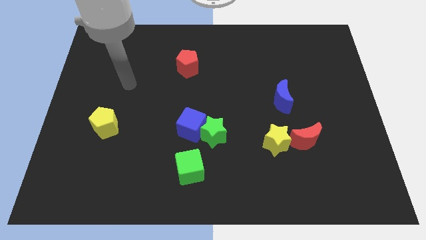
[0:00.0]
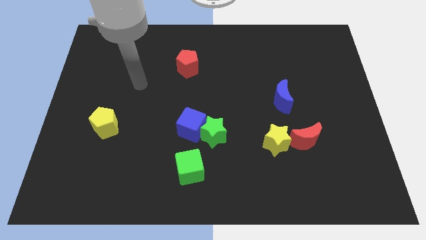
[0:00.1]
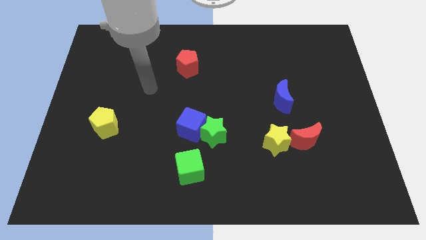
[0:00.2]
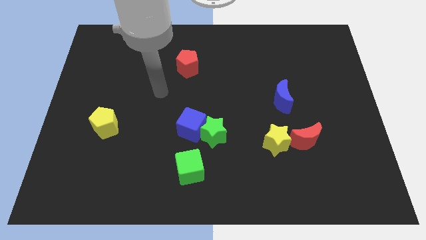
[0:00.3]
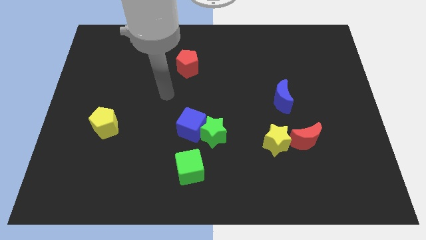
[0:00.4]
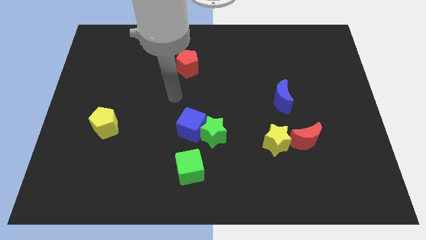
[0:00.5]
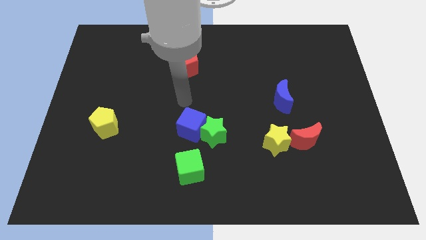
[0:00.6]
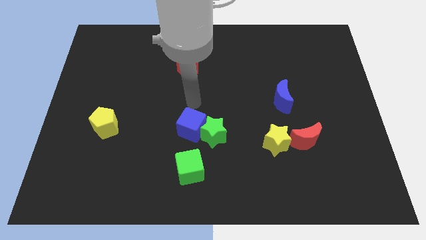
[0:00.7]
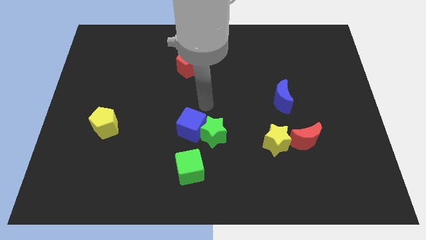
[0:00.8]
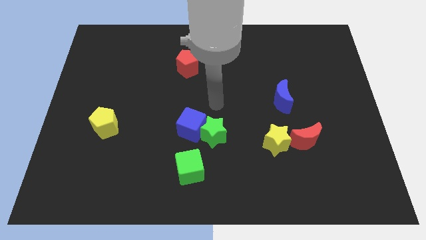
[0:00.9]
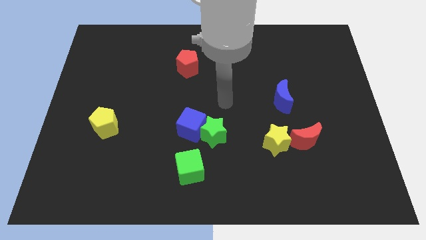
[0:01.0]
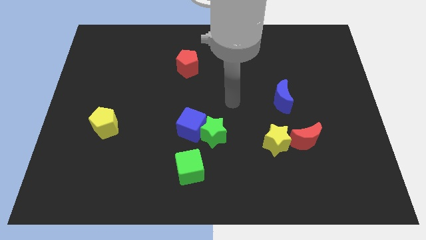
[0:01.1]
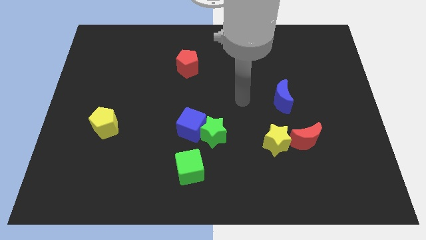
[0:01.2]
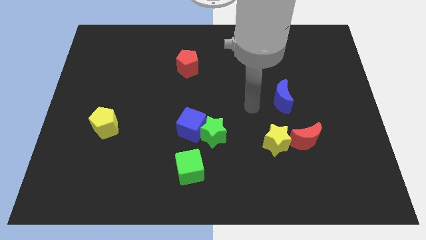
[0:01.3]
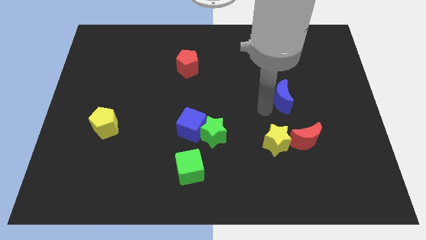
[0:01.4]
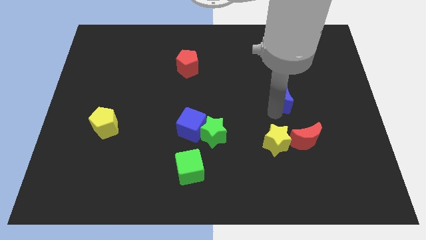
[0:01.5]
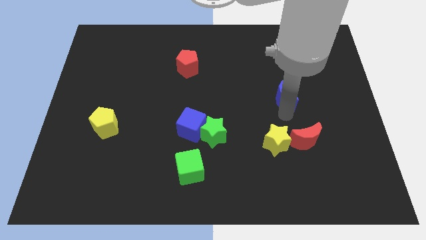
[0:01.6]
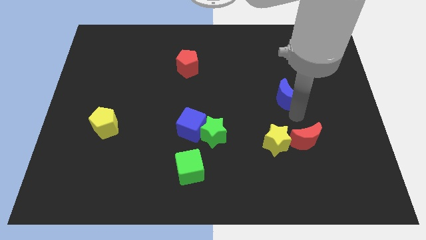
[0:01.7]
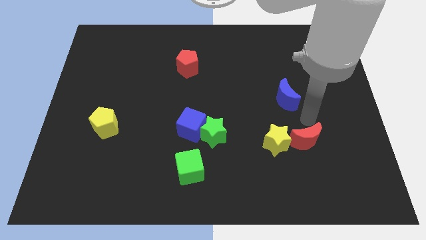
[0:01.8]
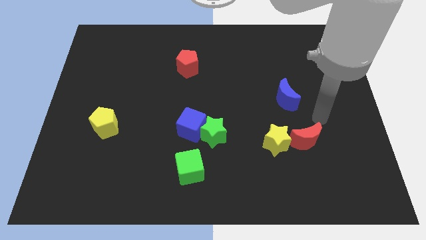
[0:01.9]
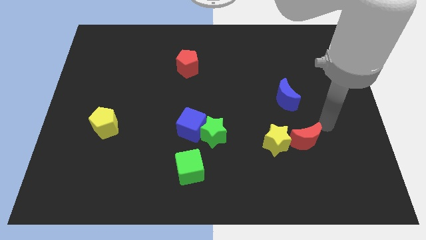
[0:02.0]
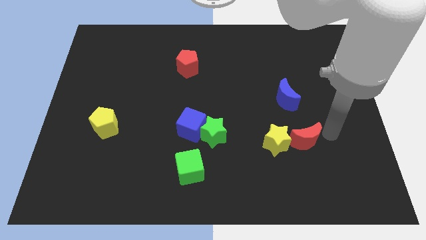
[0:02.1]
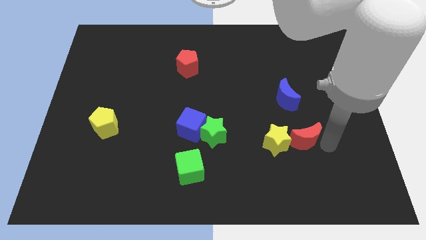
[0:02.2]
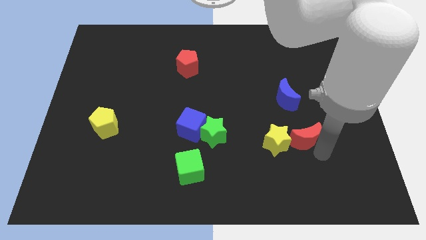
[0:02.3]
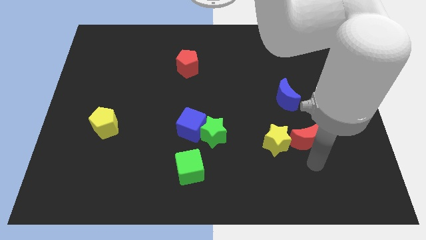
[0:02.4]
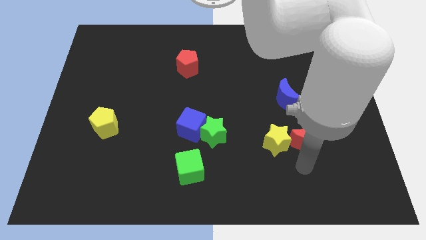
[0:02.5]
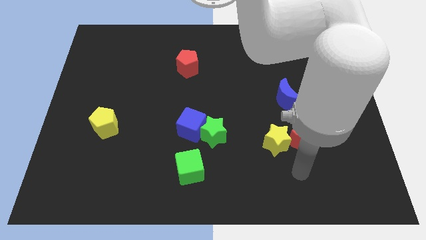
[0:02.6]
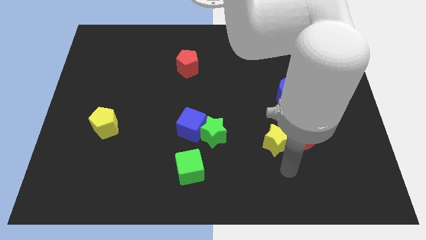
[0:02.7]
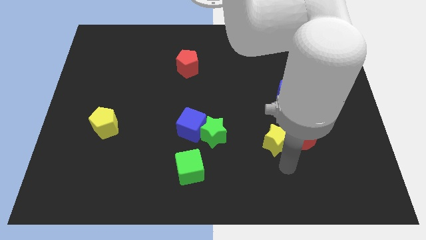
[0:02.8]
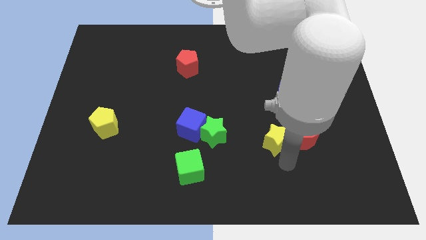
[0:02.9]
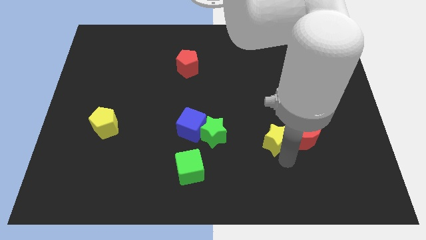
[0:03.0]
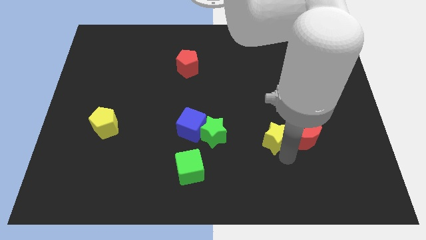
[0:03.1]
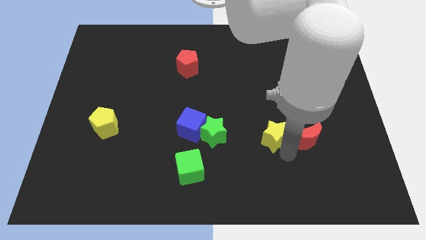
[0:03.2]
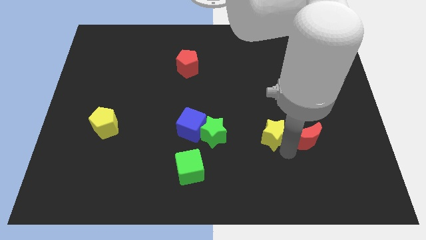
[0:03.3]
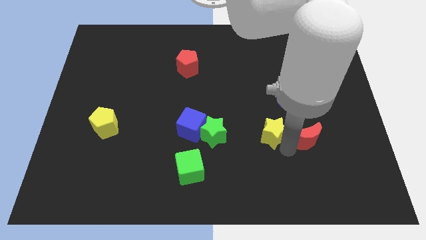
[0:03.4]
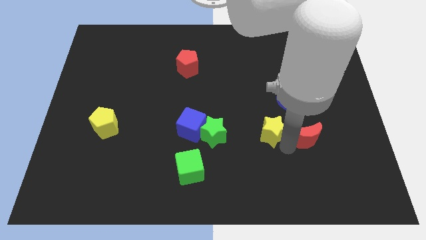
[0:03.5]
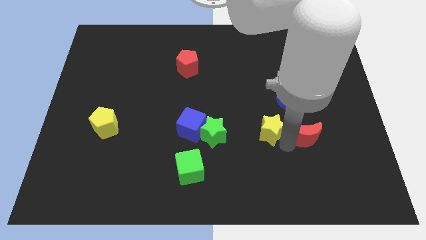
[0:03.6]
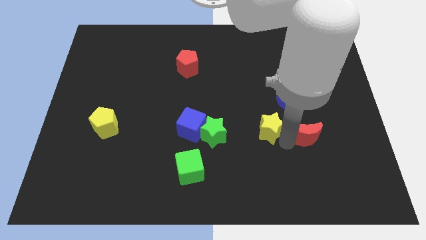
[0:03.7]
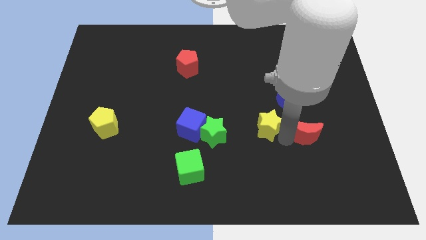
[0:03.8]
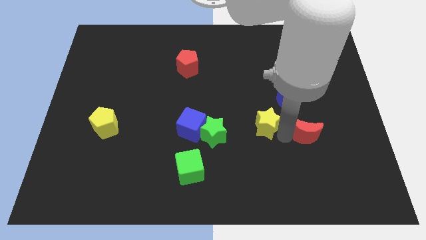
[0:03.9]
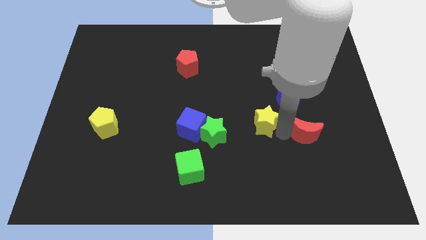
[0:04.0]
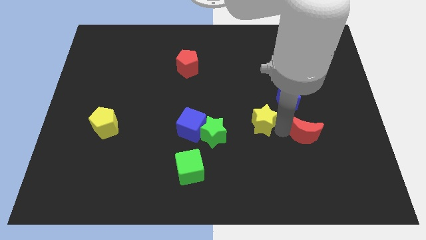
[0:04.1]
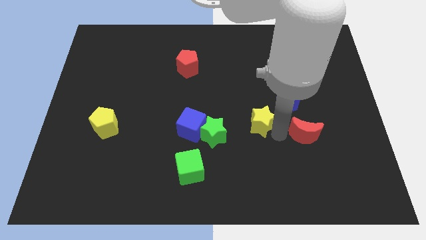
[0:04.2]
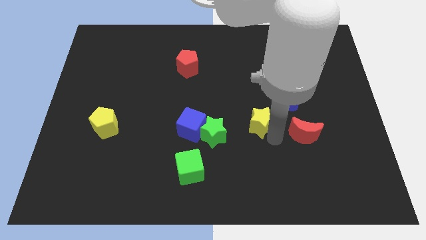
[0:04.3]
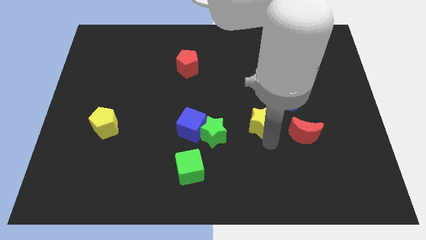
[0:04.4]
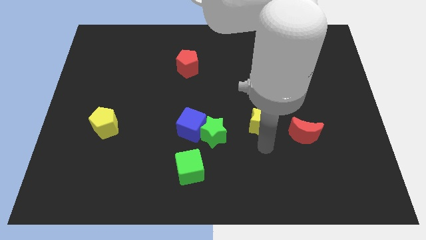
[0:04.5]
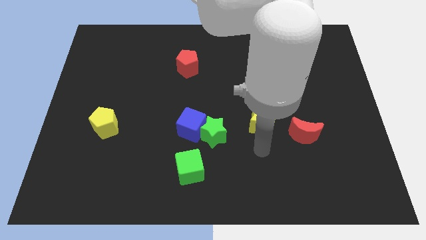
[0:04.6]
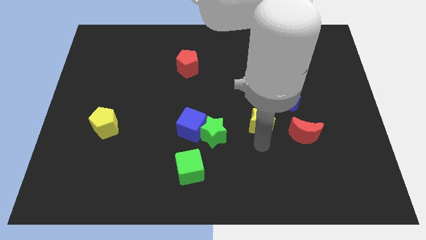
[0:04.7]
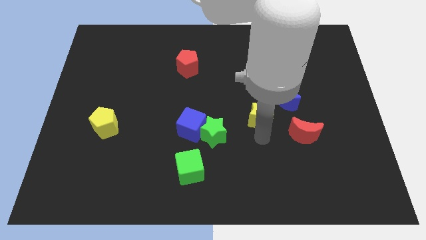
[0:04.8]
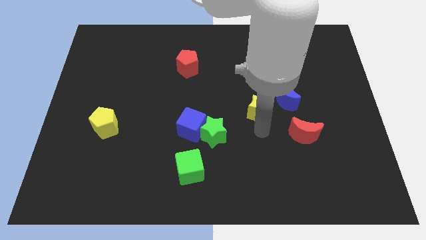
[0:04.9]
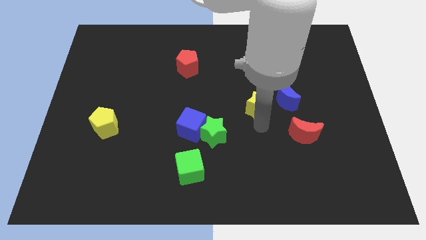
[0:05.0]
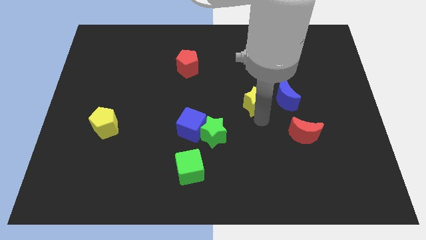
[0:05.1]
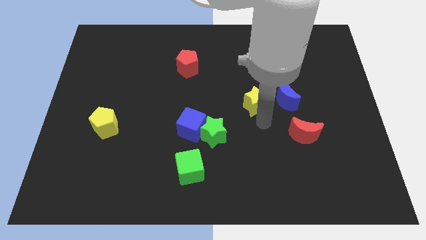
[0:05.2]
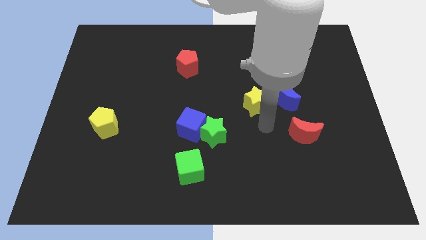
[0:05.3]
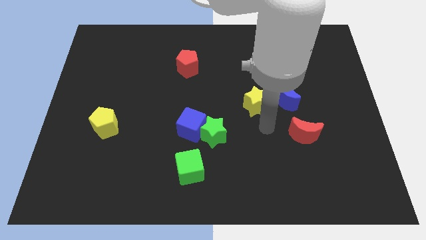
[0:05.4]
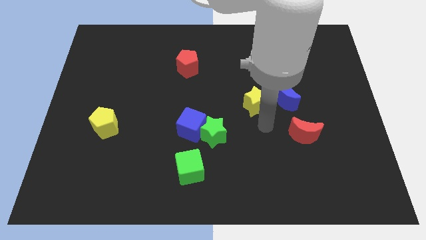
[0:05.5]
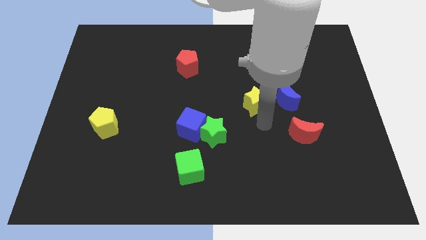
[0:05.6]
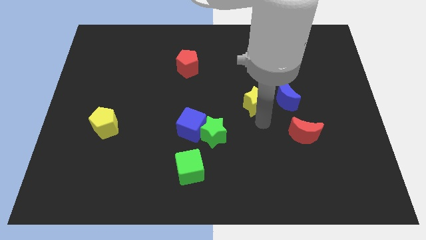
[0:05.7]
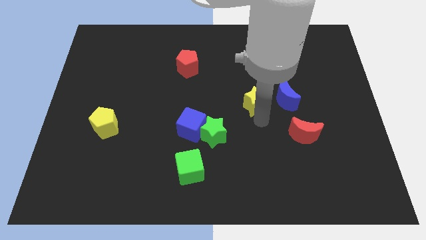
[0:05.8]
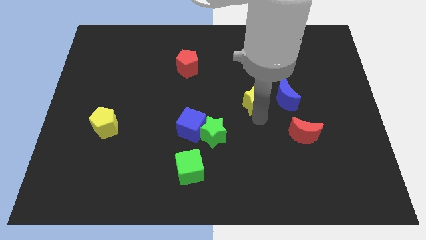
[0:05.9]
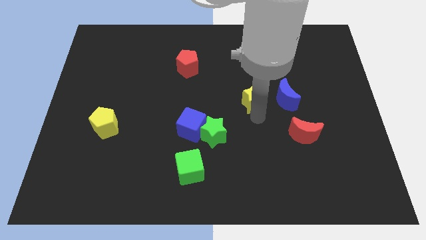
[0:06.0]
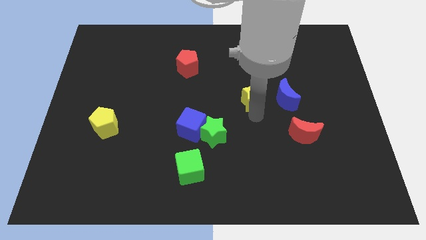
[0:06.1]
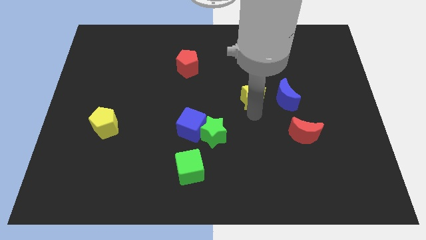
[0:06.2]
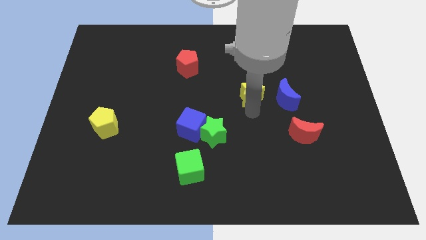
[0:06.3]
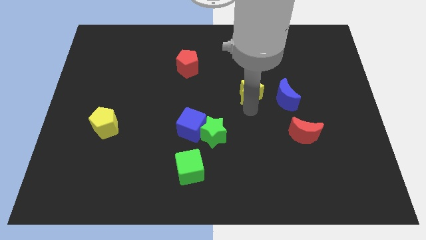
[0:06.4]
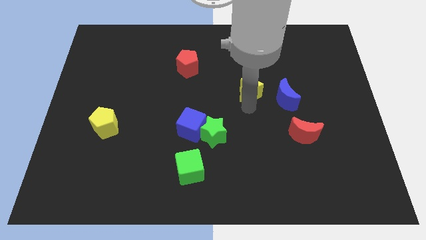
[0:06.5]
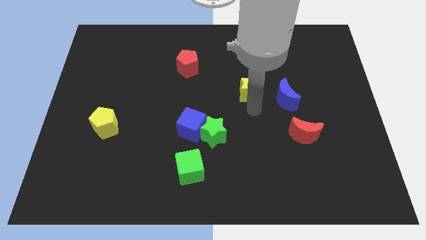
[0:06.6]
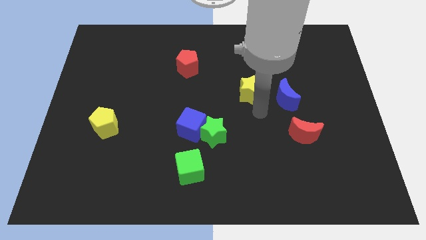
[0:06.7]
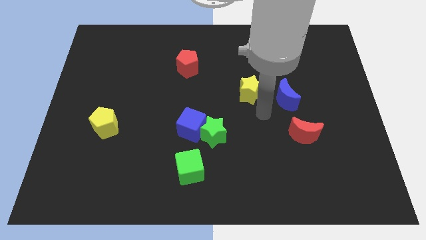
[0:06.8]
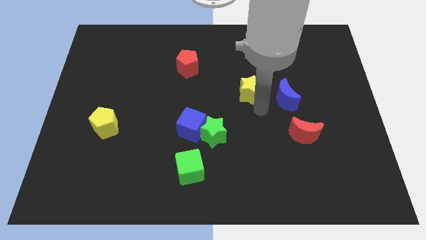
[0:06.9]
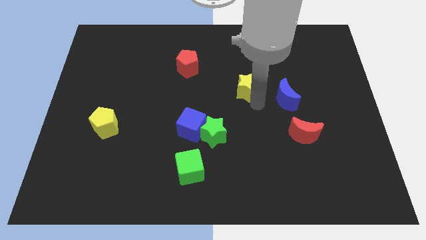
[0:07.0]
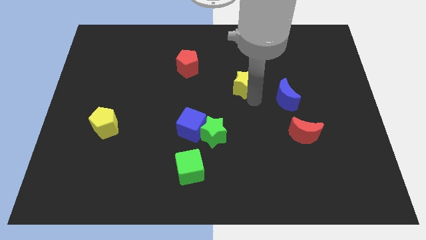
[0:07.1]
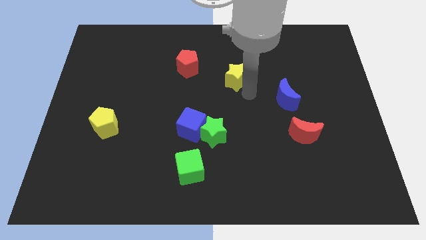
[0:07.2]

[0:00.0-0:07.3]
slide the yellow star to the right side of the red pentagon
